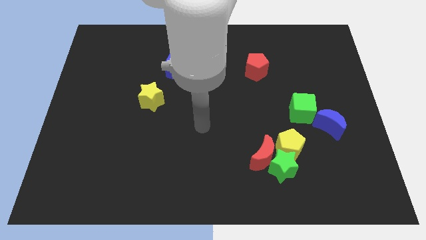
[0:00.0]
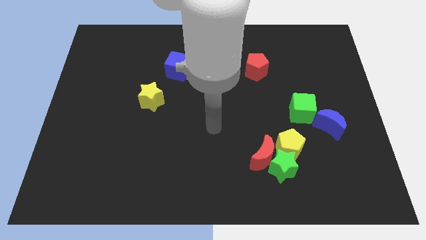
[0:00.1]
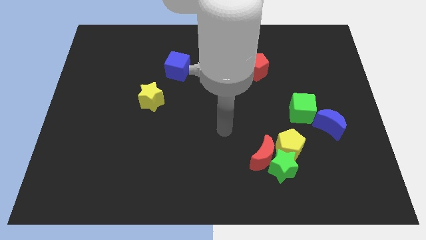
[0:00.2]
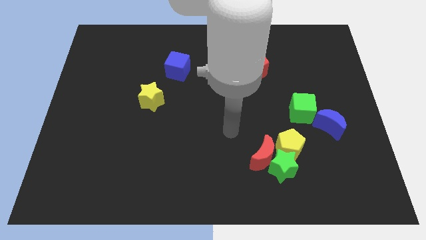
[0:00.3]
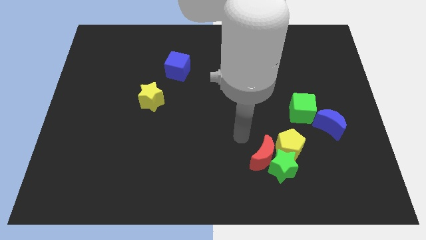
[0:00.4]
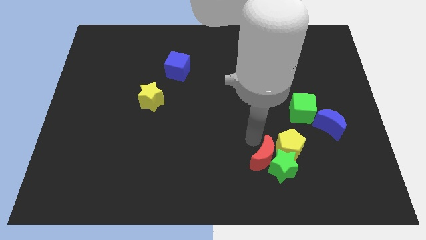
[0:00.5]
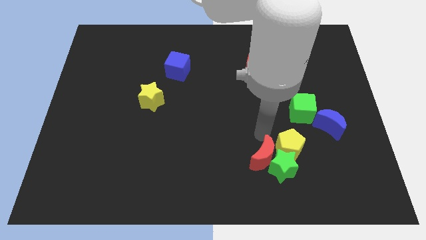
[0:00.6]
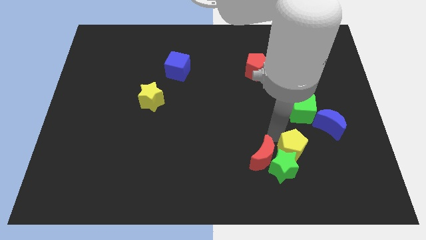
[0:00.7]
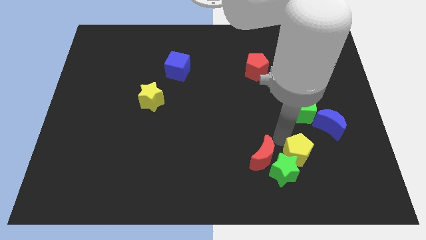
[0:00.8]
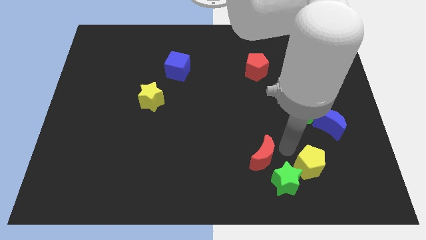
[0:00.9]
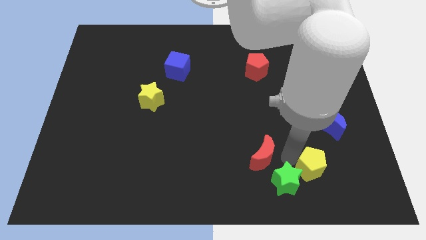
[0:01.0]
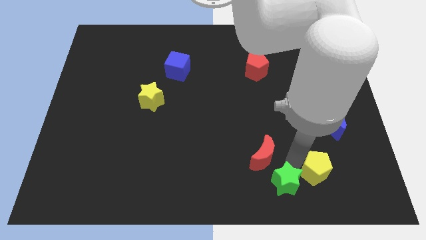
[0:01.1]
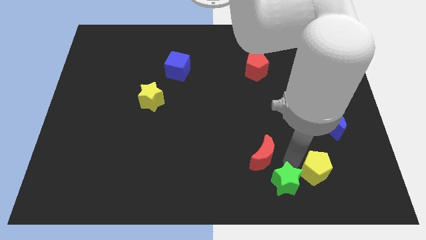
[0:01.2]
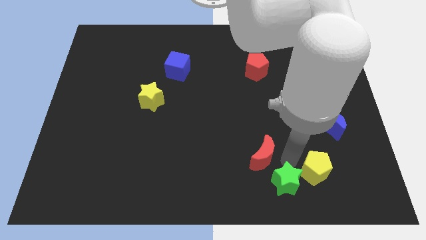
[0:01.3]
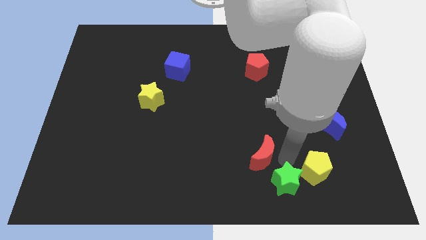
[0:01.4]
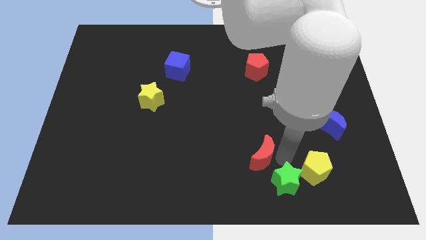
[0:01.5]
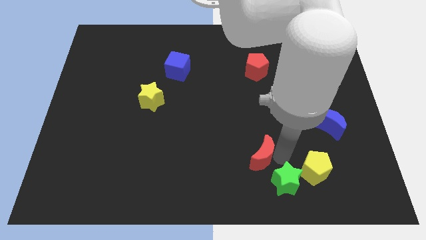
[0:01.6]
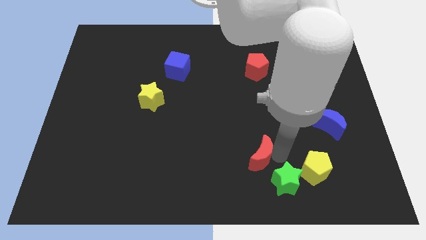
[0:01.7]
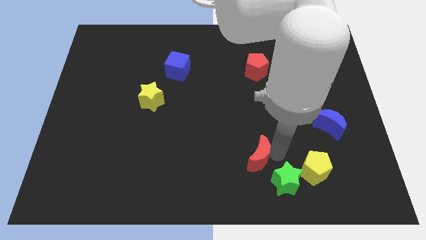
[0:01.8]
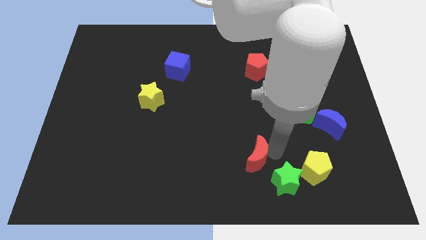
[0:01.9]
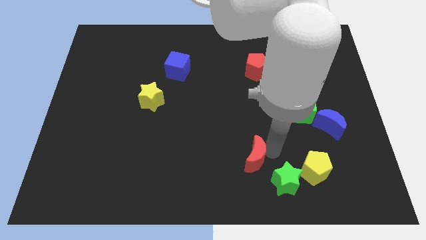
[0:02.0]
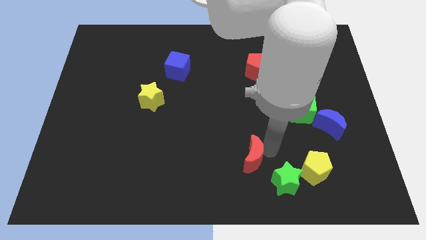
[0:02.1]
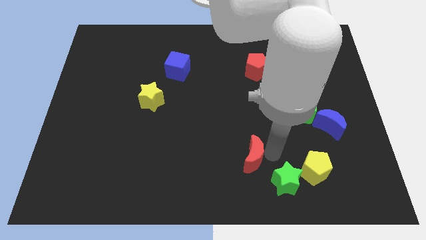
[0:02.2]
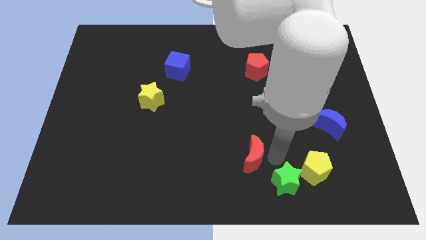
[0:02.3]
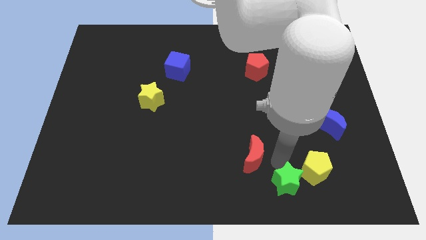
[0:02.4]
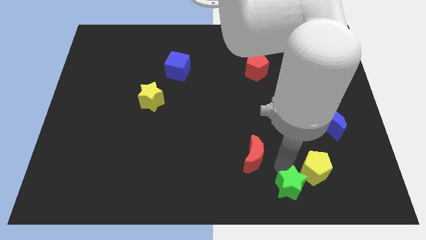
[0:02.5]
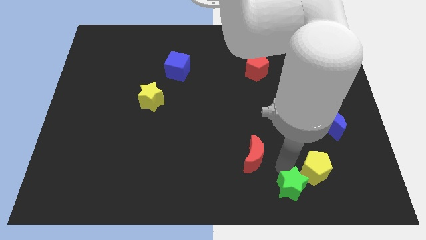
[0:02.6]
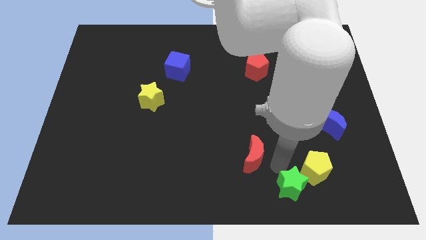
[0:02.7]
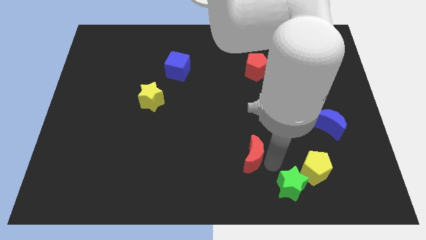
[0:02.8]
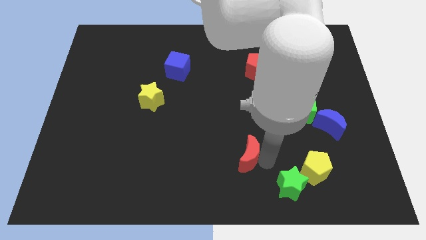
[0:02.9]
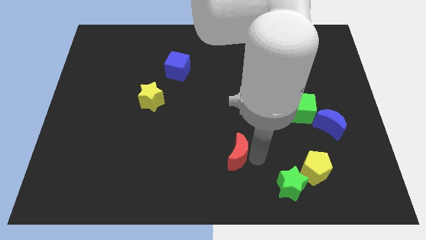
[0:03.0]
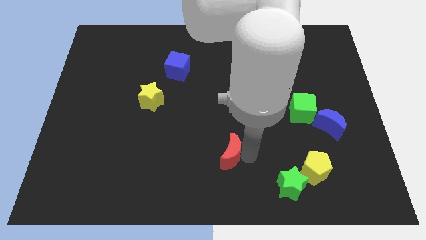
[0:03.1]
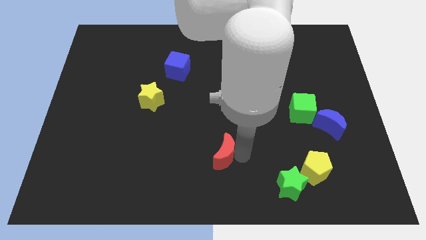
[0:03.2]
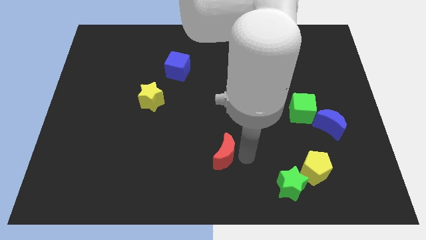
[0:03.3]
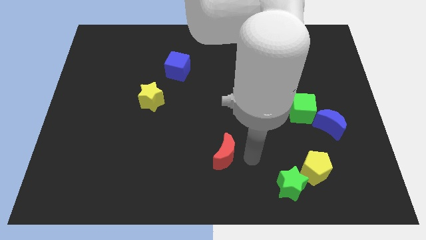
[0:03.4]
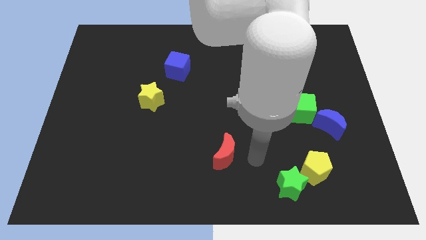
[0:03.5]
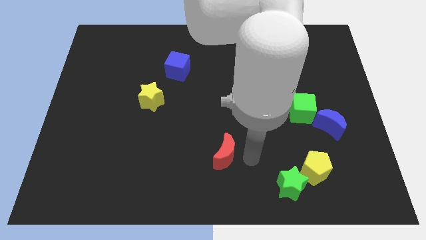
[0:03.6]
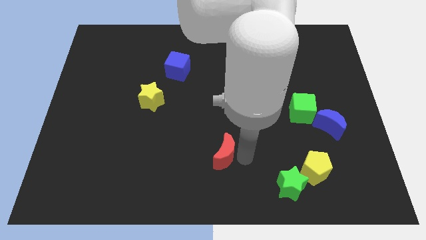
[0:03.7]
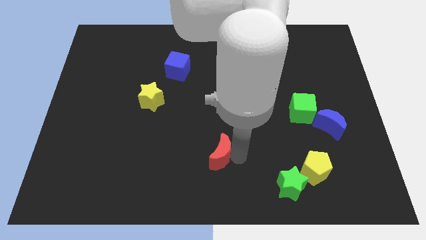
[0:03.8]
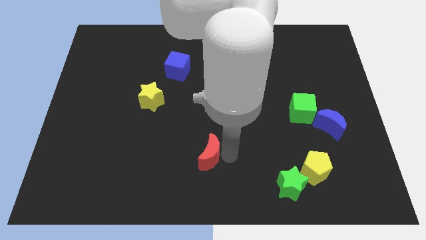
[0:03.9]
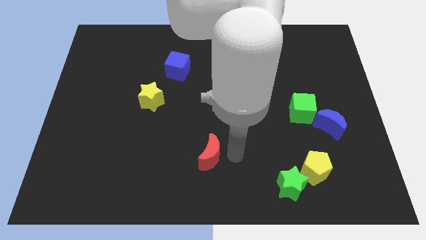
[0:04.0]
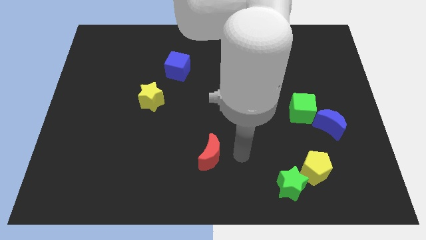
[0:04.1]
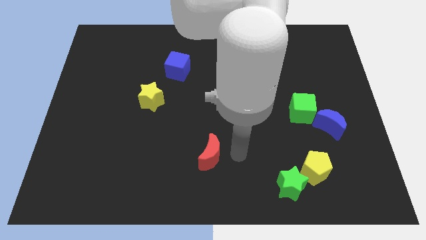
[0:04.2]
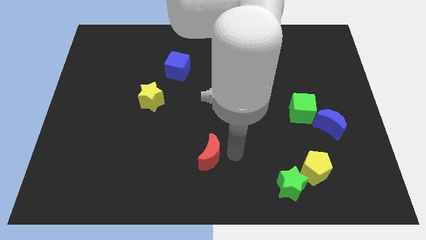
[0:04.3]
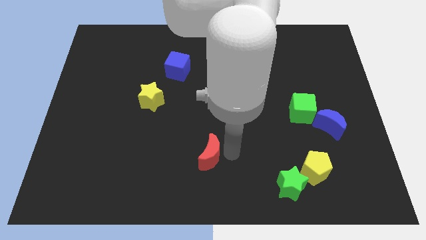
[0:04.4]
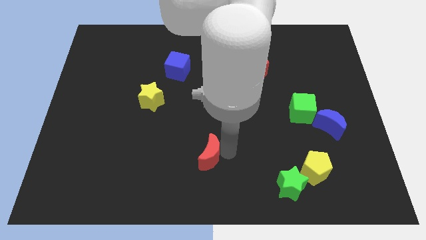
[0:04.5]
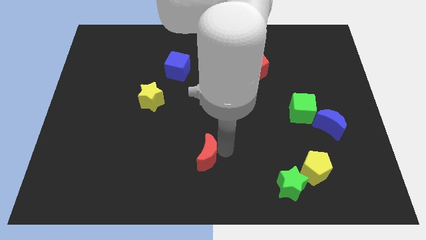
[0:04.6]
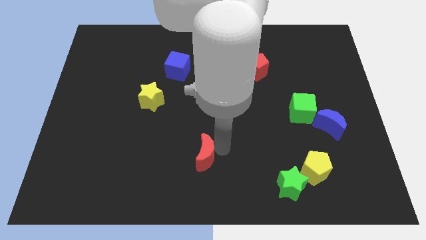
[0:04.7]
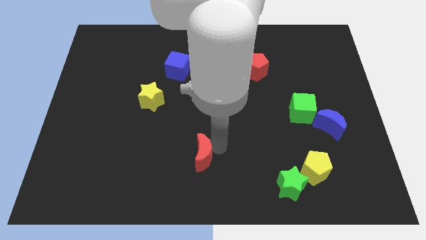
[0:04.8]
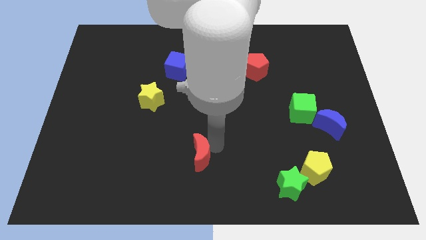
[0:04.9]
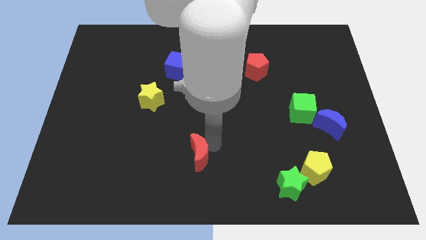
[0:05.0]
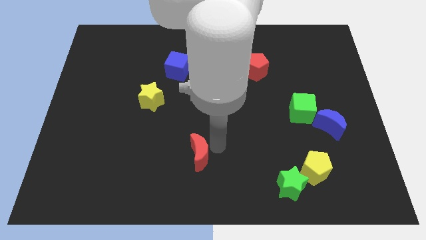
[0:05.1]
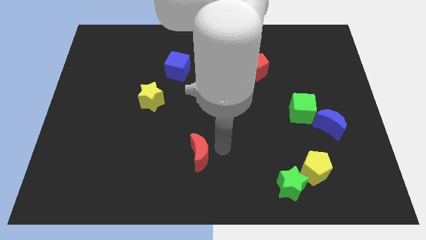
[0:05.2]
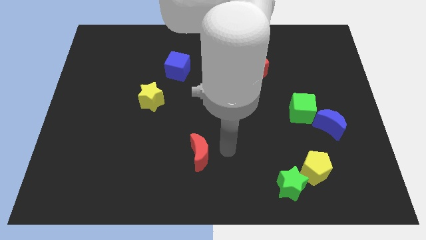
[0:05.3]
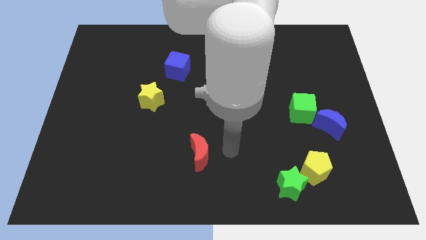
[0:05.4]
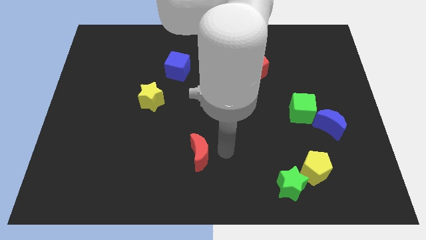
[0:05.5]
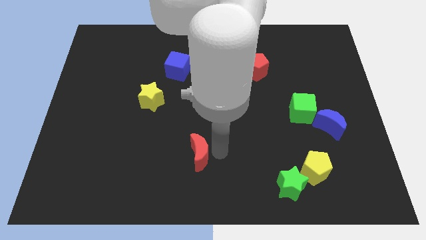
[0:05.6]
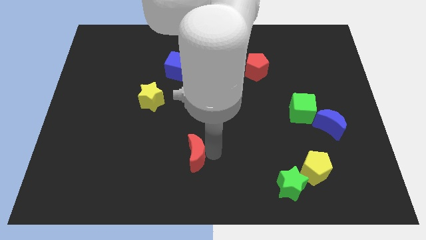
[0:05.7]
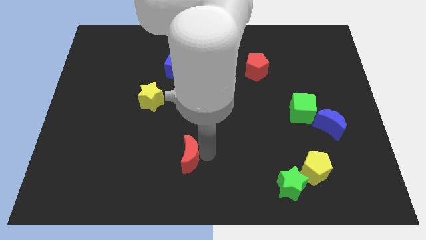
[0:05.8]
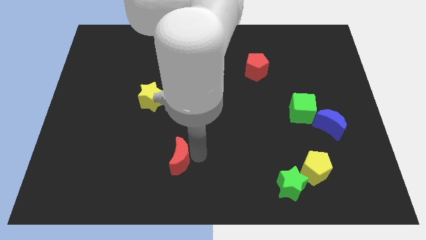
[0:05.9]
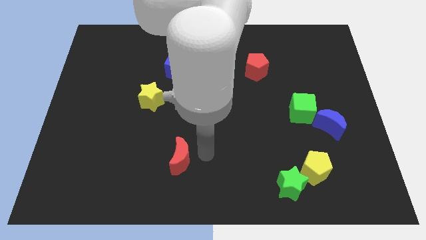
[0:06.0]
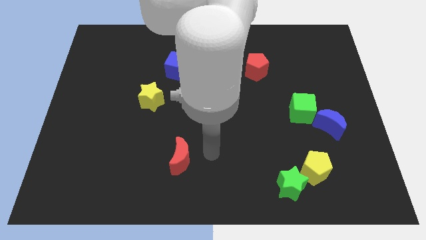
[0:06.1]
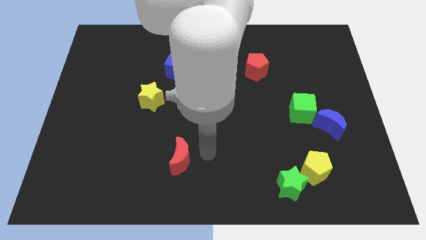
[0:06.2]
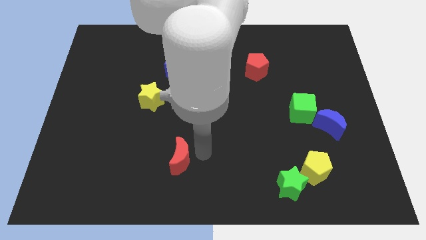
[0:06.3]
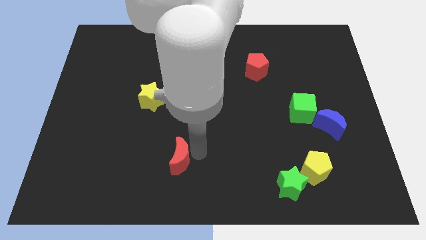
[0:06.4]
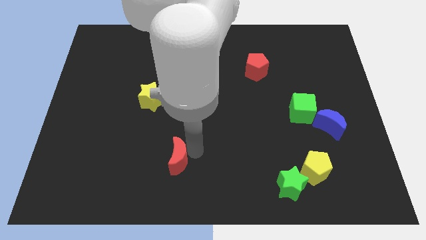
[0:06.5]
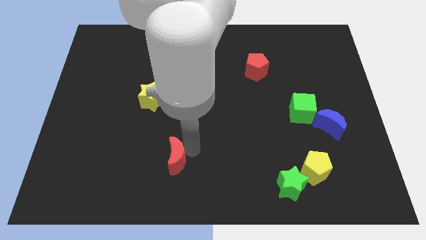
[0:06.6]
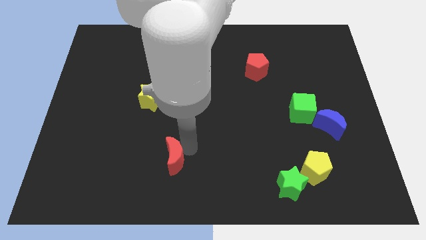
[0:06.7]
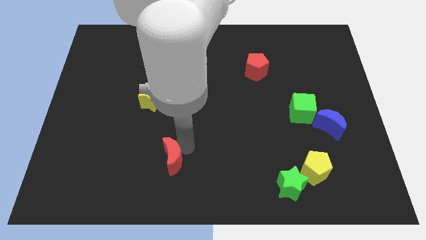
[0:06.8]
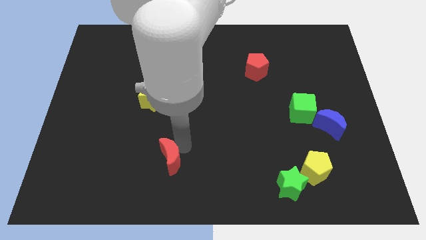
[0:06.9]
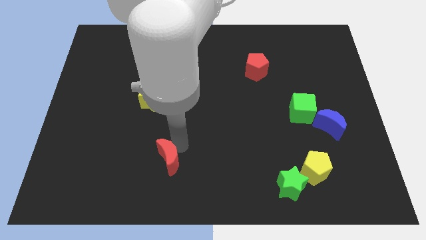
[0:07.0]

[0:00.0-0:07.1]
slide the red moon left

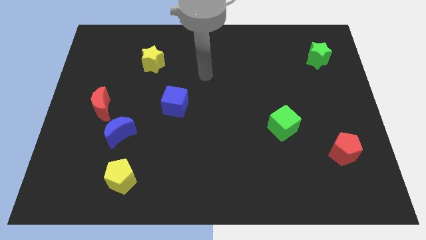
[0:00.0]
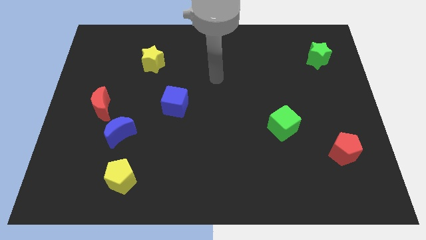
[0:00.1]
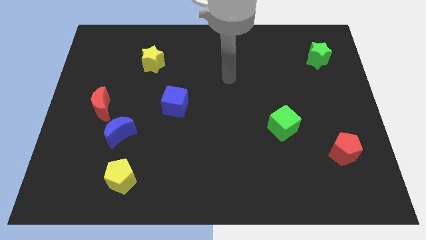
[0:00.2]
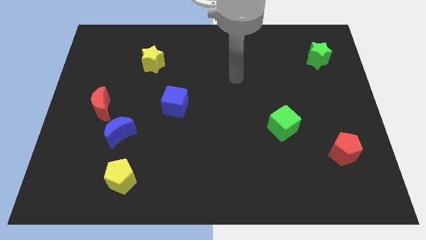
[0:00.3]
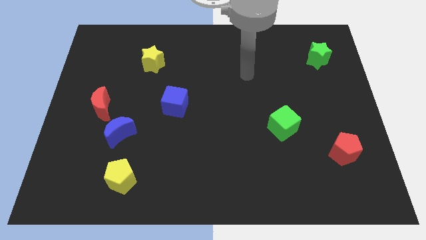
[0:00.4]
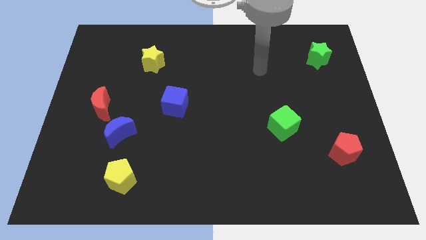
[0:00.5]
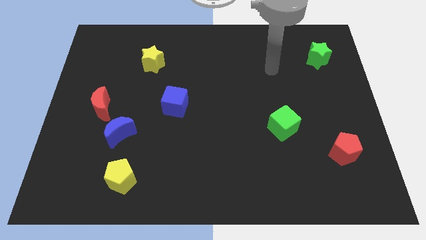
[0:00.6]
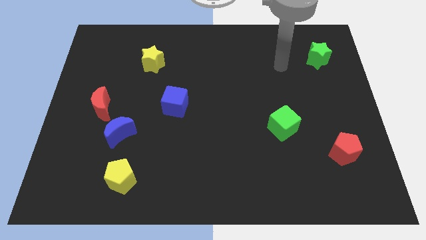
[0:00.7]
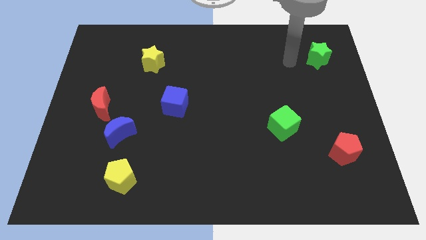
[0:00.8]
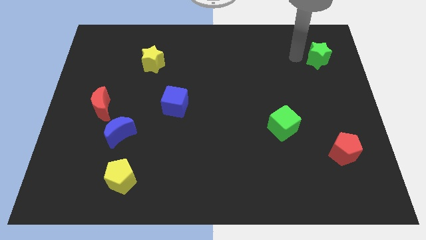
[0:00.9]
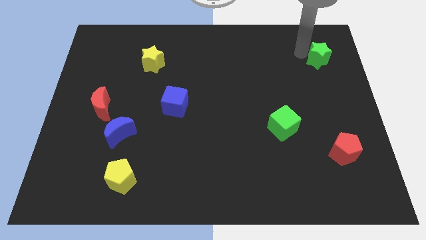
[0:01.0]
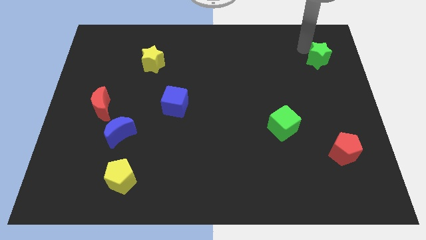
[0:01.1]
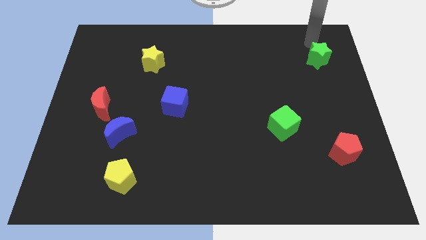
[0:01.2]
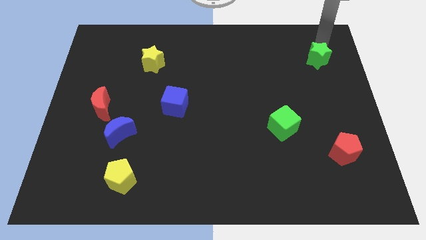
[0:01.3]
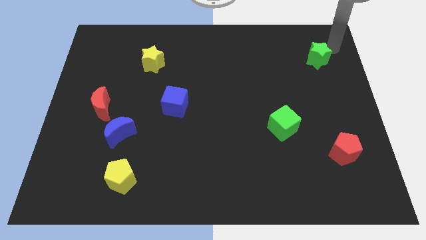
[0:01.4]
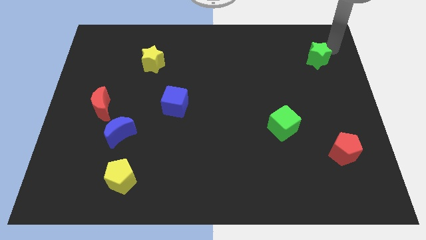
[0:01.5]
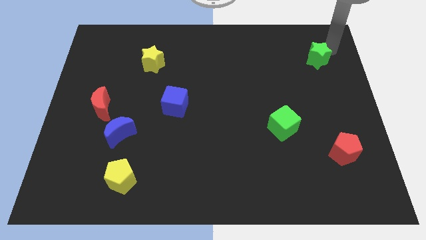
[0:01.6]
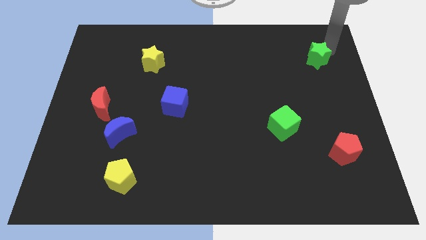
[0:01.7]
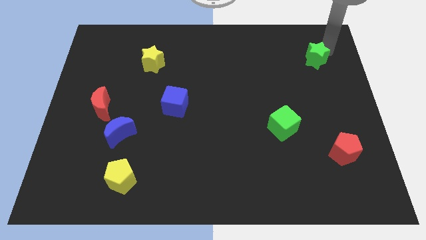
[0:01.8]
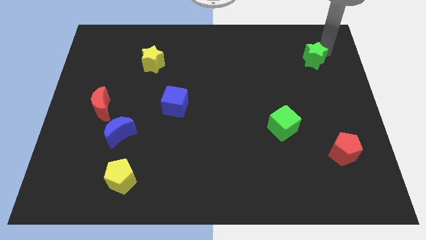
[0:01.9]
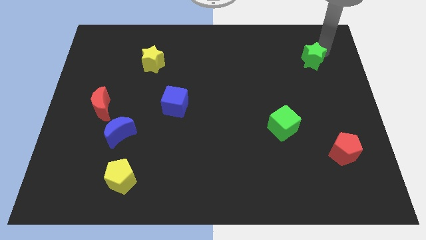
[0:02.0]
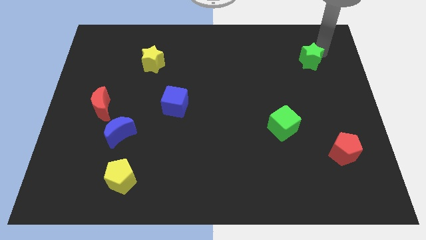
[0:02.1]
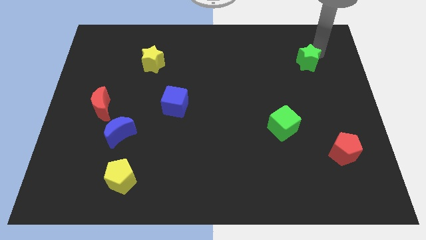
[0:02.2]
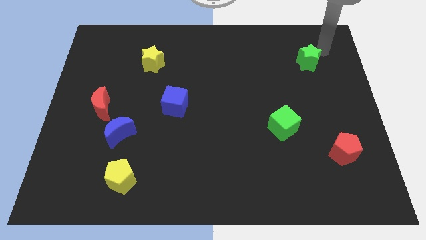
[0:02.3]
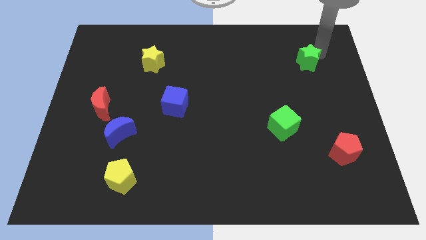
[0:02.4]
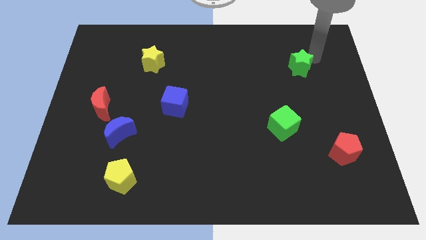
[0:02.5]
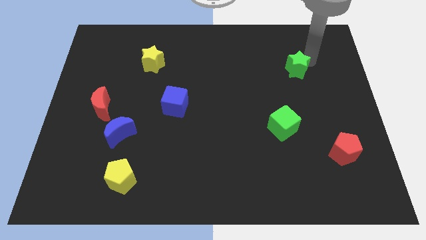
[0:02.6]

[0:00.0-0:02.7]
slightly push the green star downwards and left diagonally
